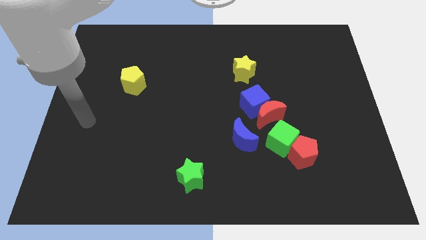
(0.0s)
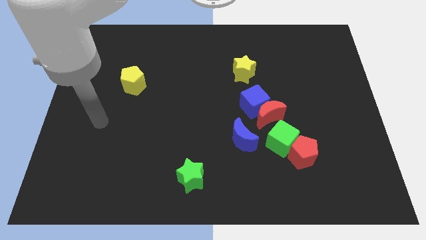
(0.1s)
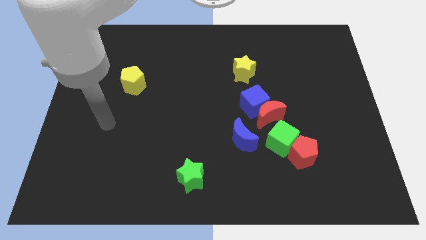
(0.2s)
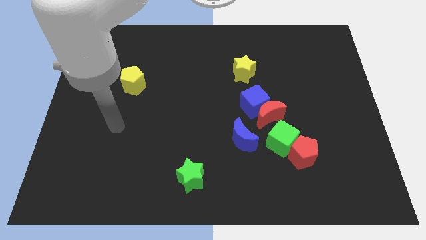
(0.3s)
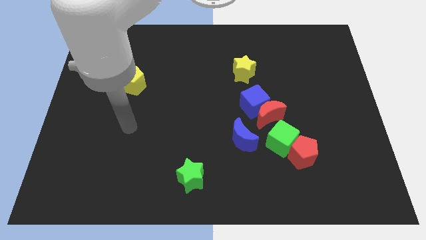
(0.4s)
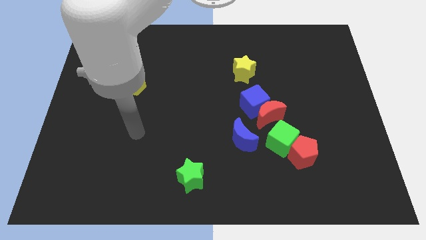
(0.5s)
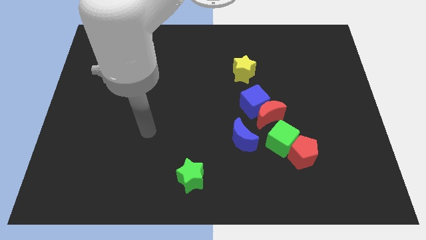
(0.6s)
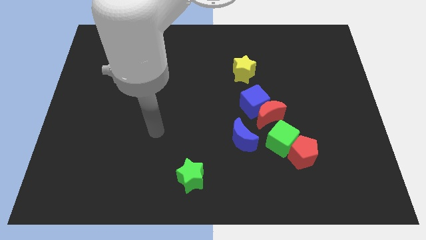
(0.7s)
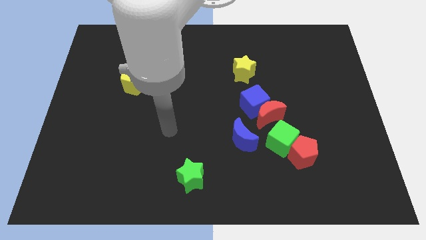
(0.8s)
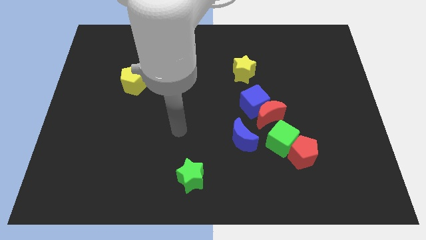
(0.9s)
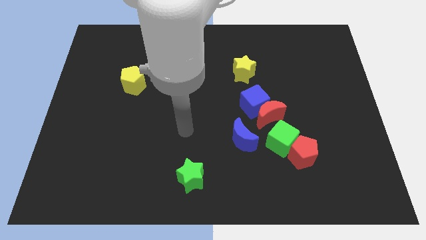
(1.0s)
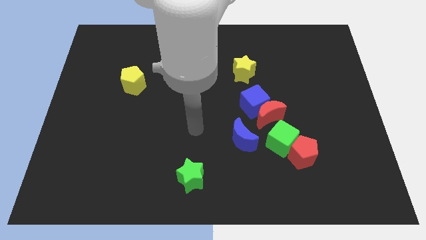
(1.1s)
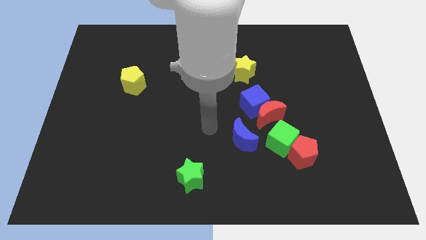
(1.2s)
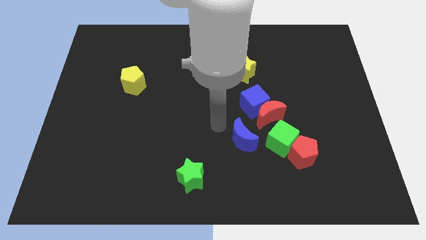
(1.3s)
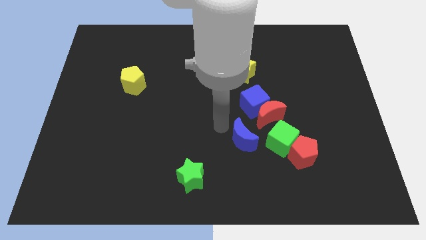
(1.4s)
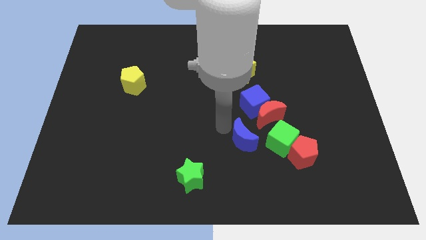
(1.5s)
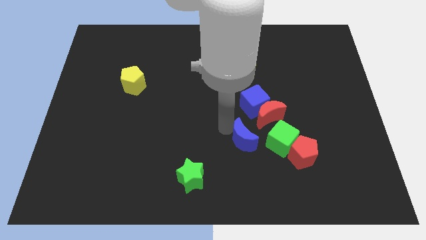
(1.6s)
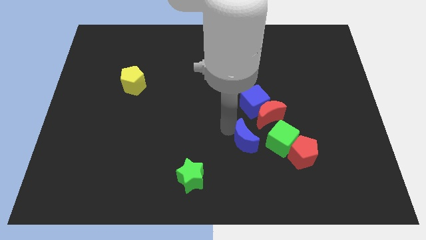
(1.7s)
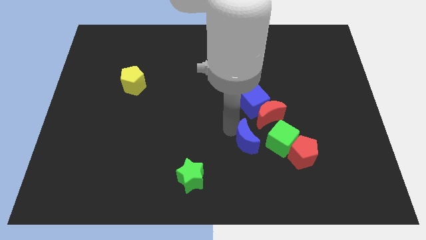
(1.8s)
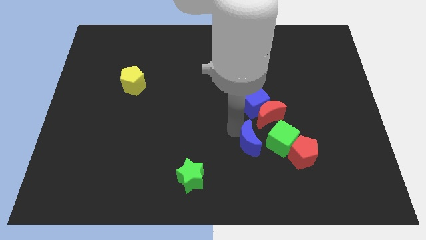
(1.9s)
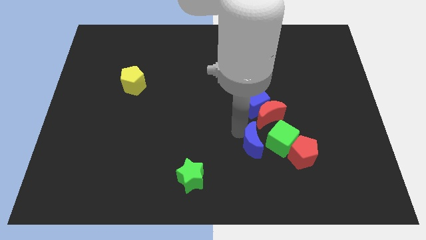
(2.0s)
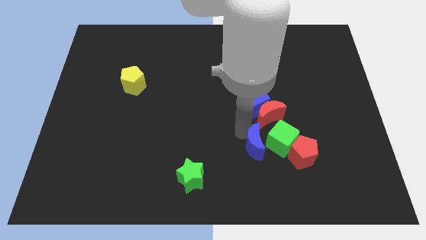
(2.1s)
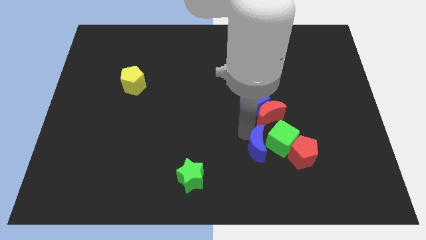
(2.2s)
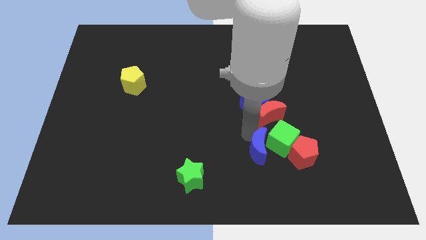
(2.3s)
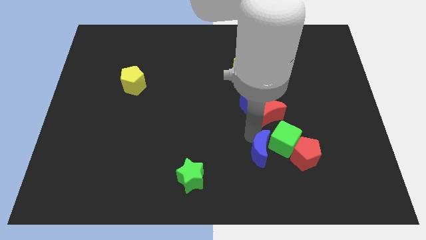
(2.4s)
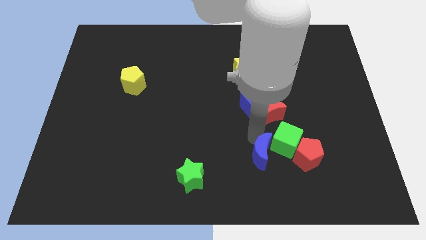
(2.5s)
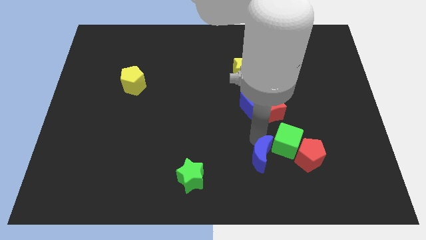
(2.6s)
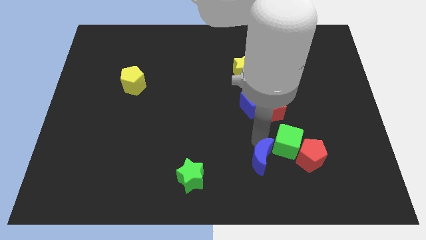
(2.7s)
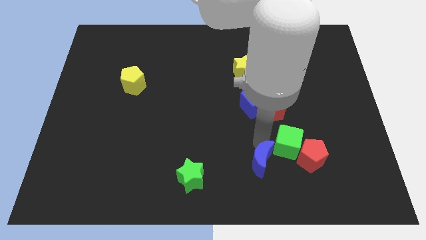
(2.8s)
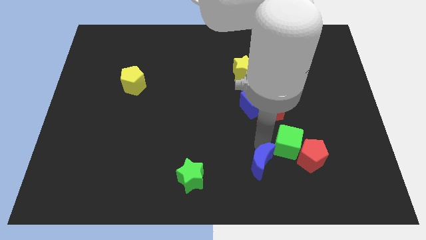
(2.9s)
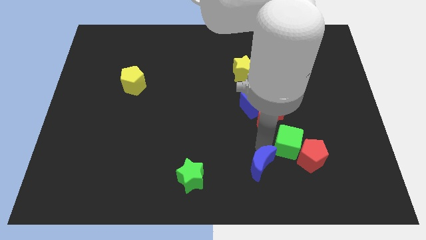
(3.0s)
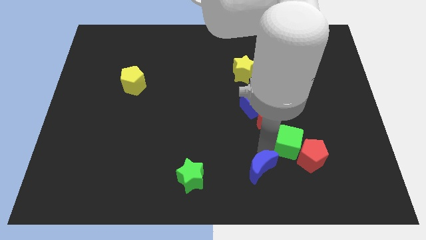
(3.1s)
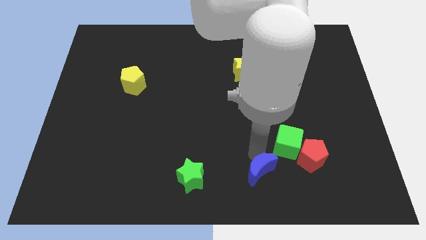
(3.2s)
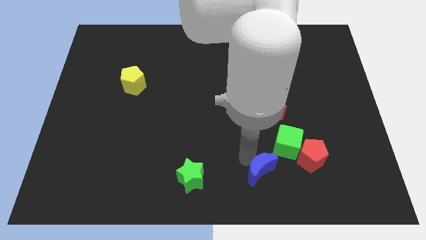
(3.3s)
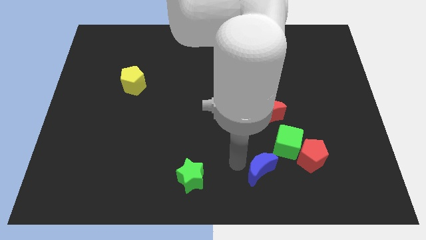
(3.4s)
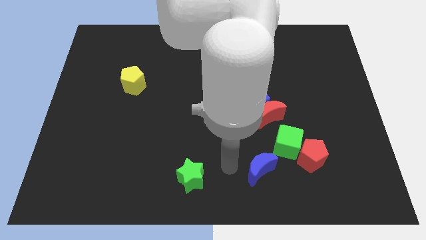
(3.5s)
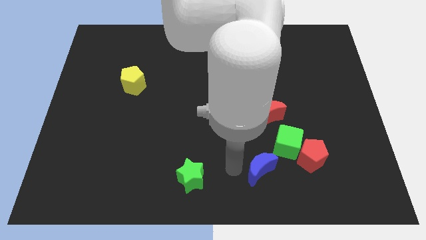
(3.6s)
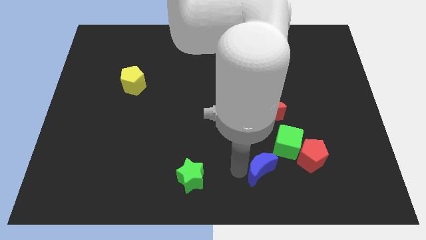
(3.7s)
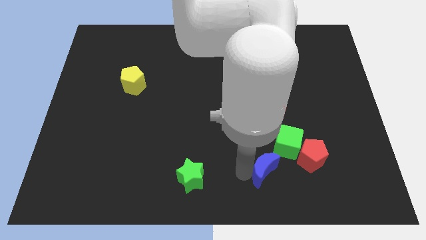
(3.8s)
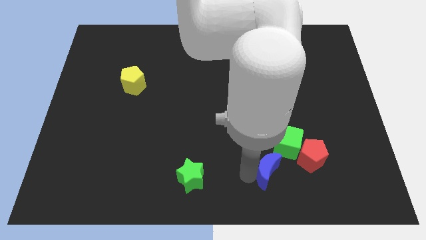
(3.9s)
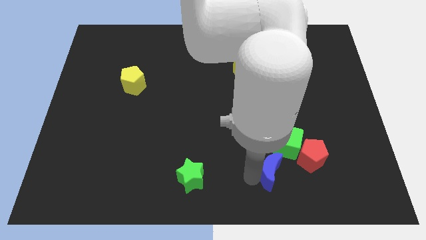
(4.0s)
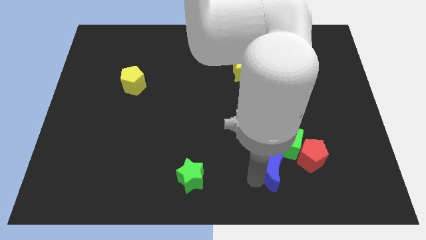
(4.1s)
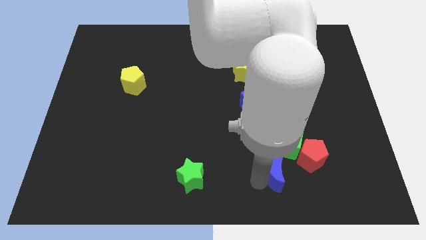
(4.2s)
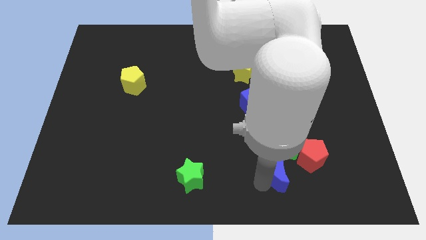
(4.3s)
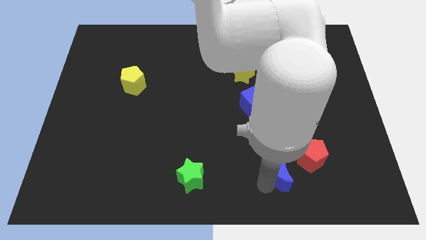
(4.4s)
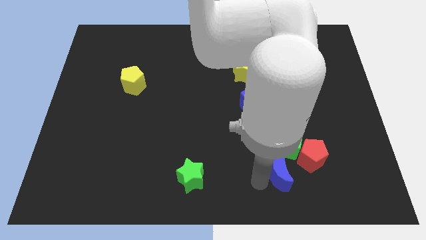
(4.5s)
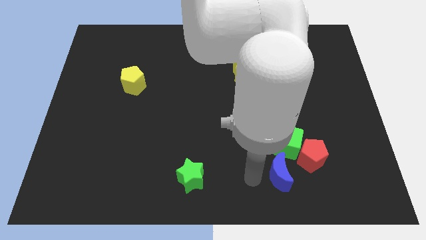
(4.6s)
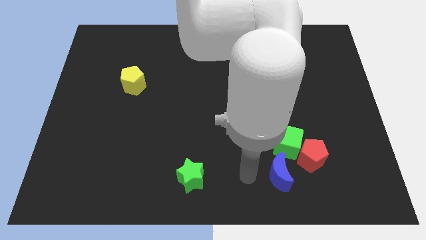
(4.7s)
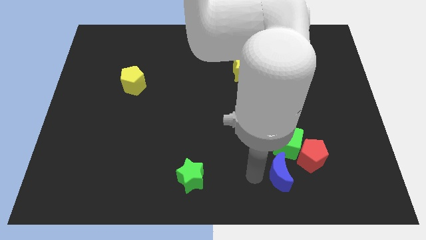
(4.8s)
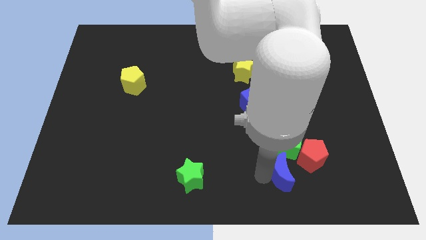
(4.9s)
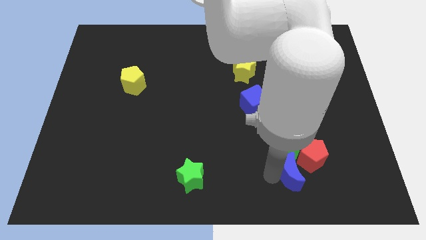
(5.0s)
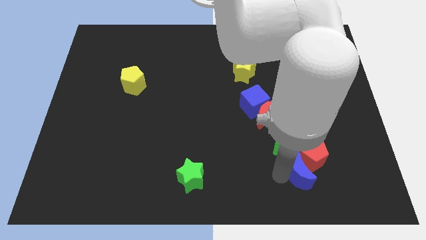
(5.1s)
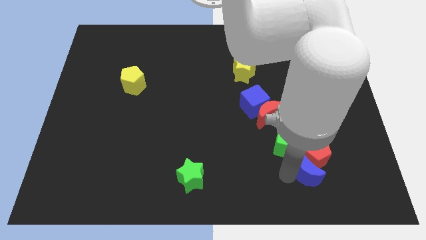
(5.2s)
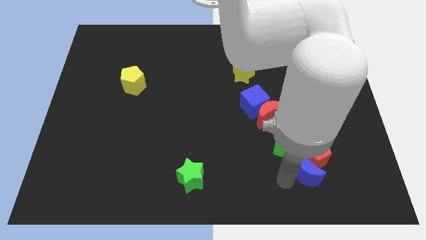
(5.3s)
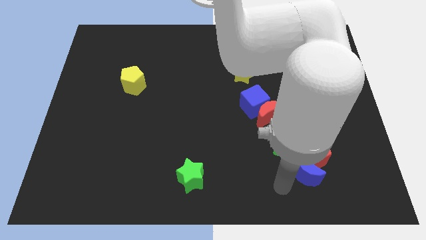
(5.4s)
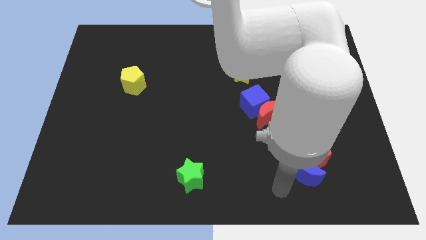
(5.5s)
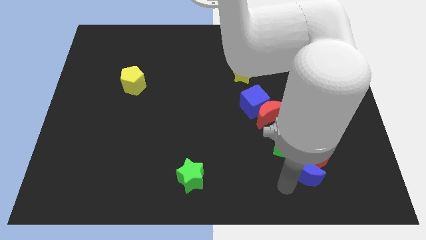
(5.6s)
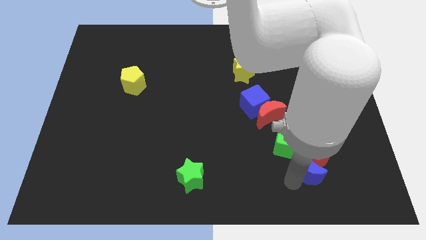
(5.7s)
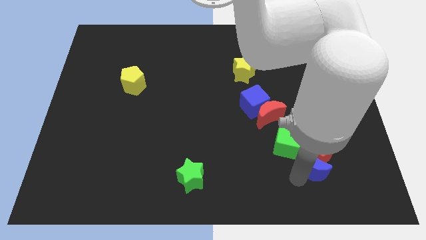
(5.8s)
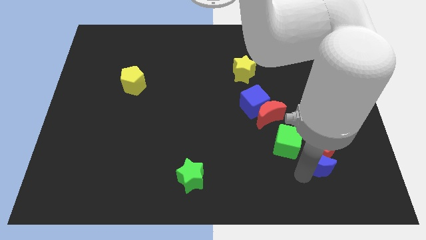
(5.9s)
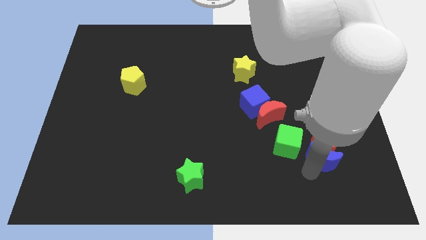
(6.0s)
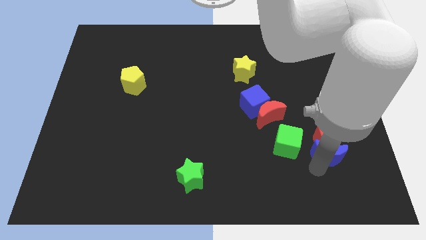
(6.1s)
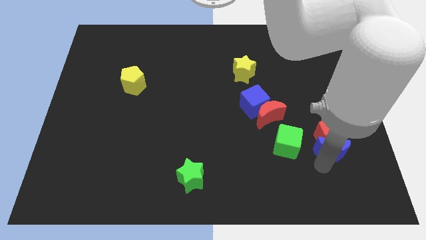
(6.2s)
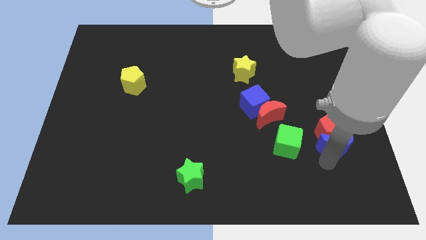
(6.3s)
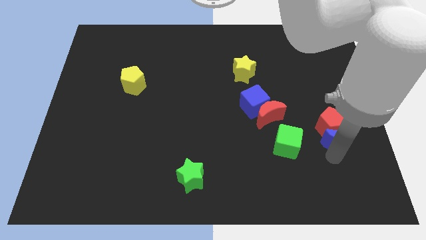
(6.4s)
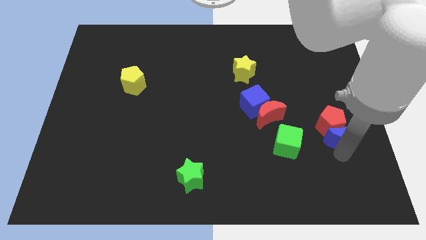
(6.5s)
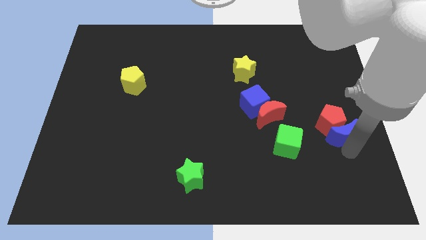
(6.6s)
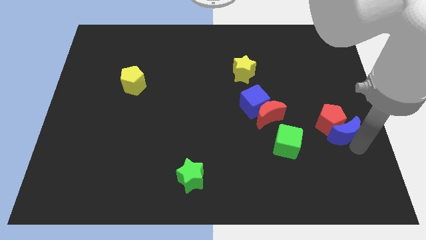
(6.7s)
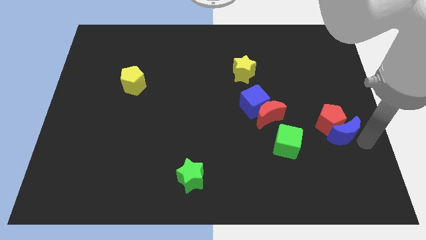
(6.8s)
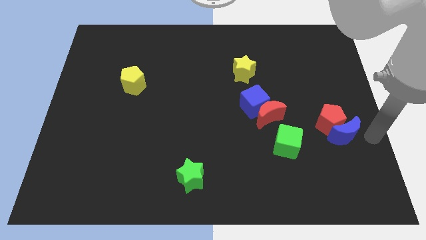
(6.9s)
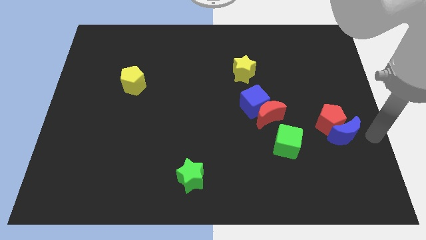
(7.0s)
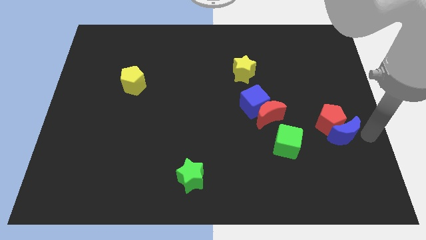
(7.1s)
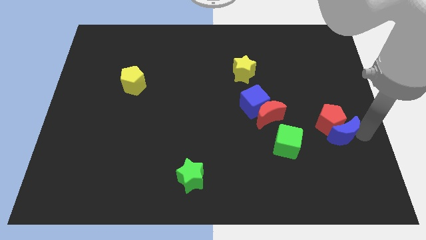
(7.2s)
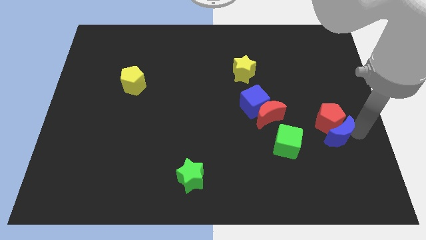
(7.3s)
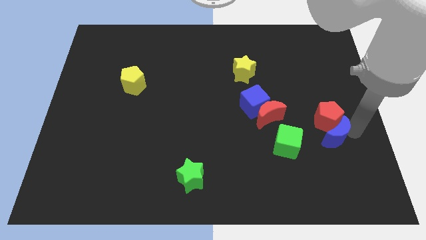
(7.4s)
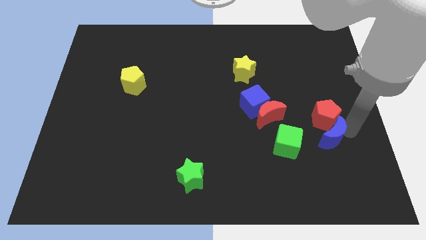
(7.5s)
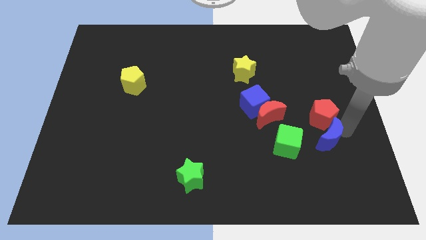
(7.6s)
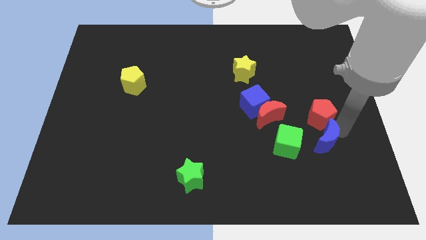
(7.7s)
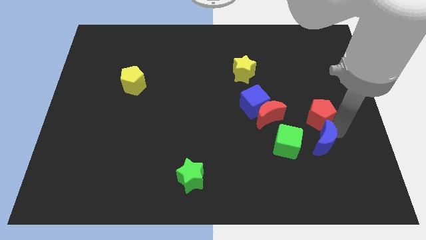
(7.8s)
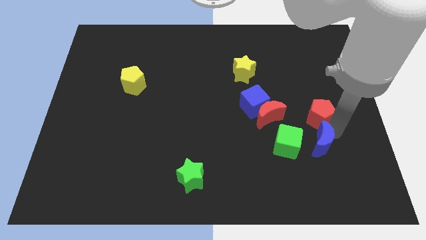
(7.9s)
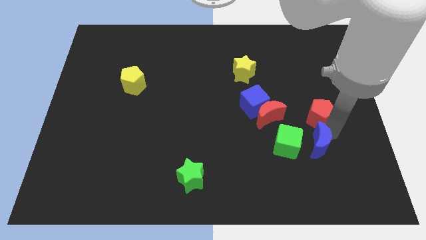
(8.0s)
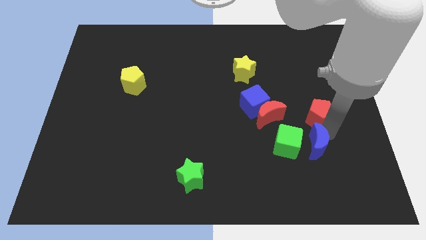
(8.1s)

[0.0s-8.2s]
push the blue moon to the bottom right of the red moon
